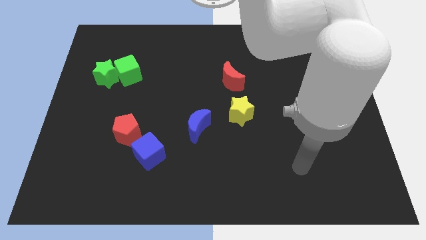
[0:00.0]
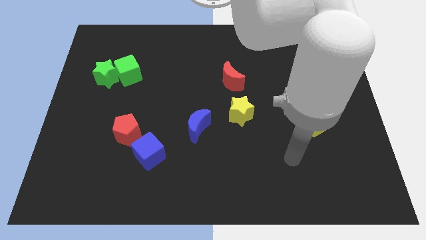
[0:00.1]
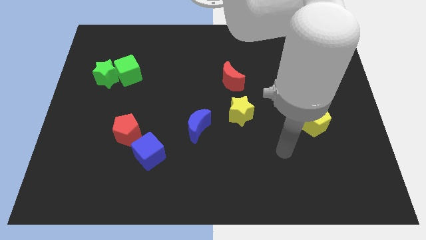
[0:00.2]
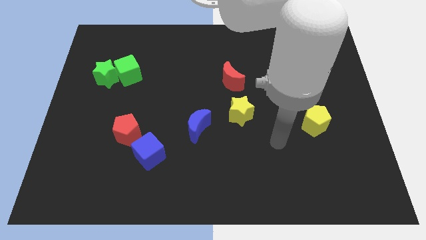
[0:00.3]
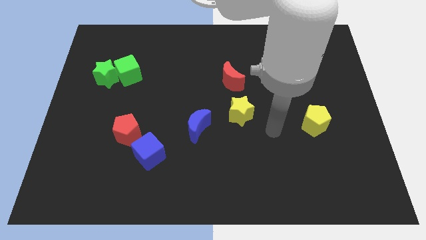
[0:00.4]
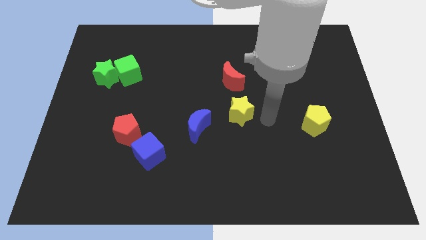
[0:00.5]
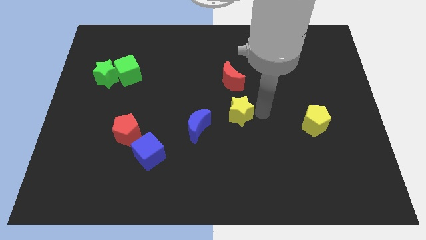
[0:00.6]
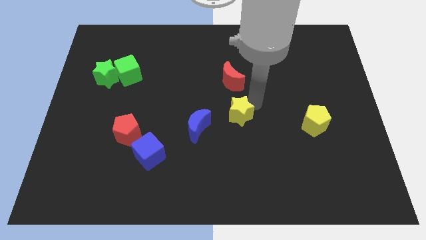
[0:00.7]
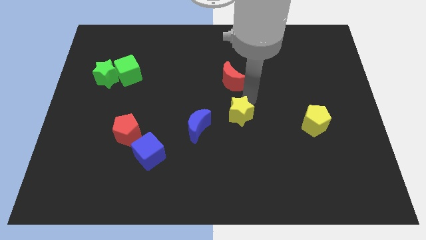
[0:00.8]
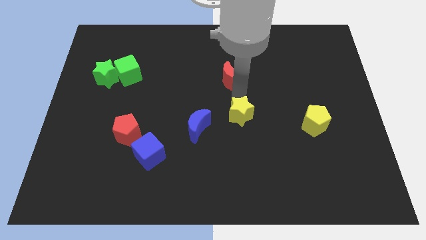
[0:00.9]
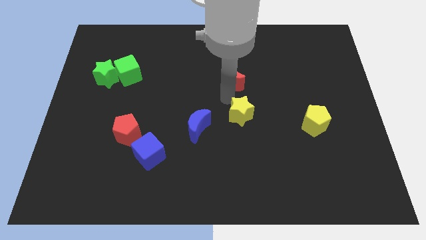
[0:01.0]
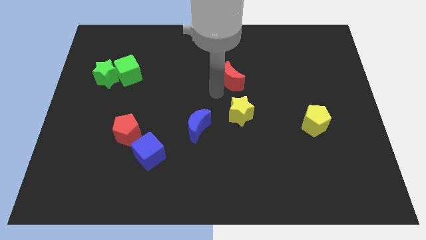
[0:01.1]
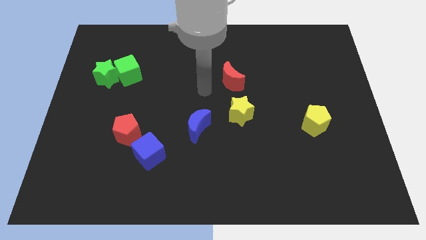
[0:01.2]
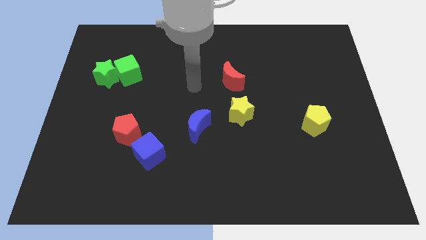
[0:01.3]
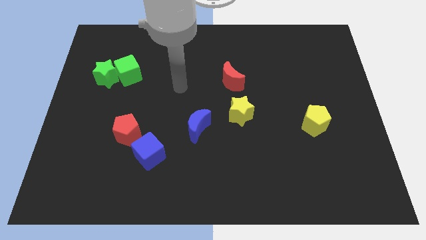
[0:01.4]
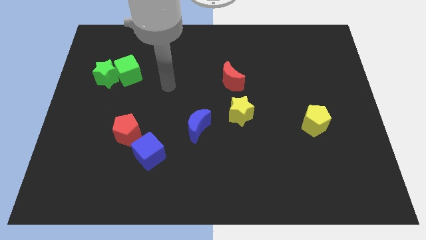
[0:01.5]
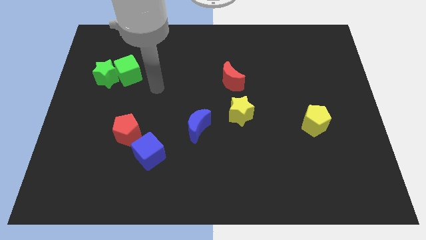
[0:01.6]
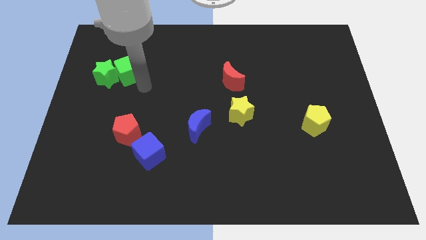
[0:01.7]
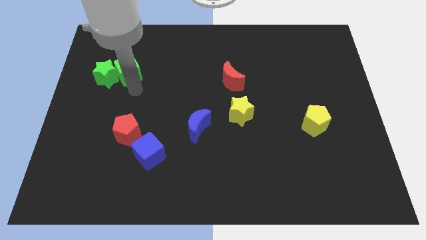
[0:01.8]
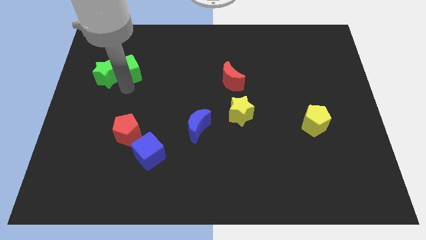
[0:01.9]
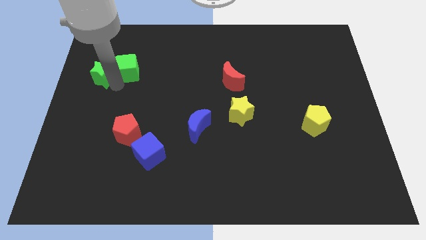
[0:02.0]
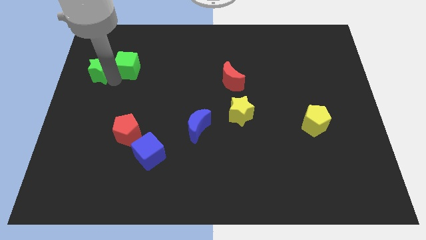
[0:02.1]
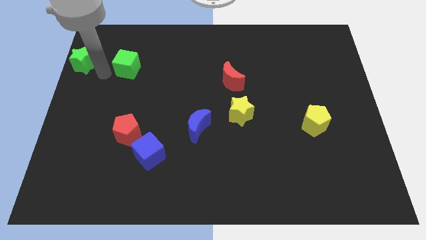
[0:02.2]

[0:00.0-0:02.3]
separate the green cube from the green star

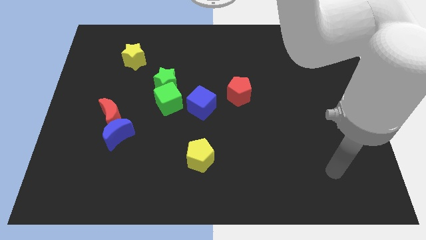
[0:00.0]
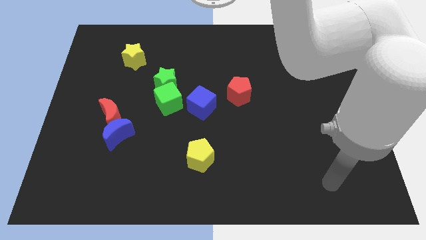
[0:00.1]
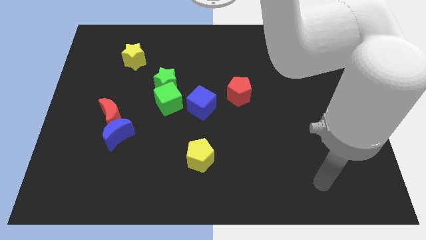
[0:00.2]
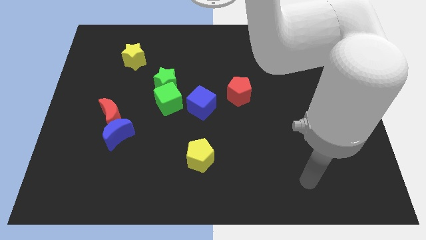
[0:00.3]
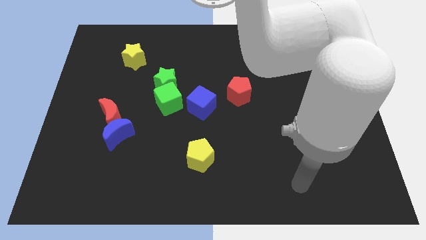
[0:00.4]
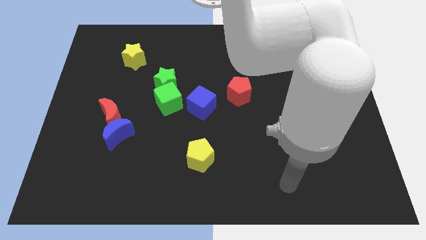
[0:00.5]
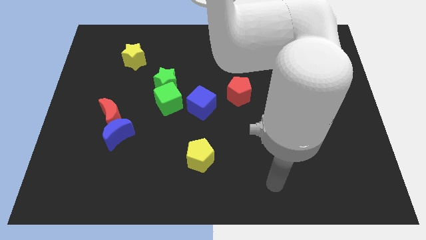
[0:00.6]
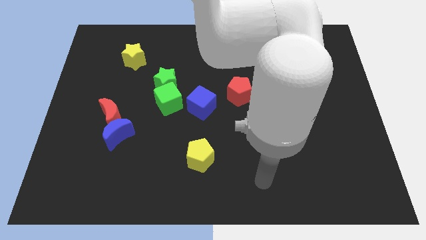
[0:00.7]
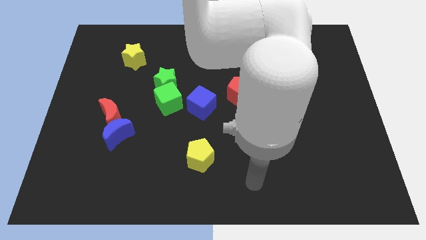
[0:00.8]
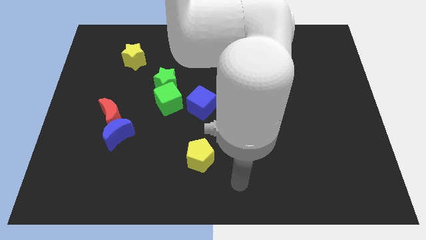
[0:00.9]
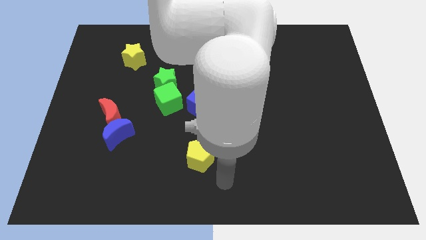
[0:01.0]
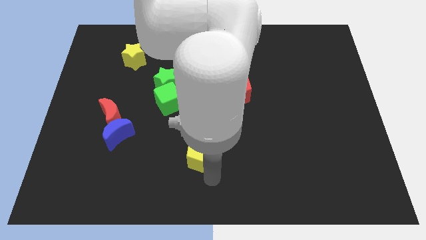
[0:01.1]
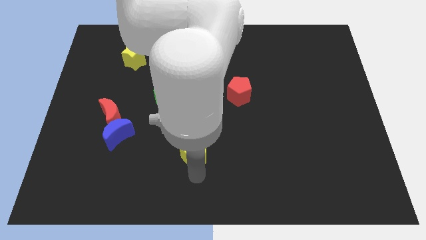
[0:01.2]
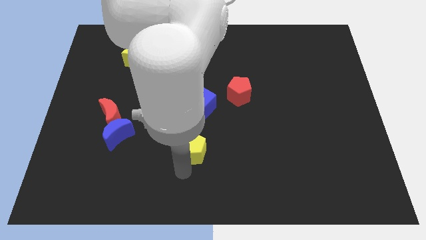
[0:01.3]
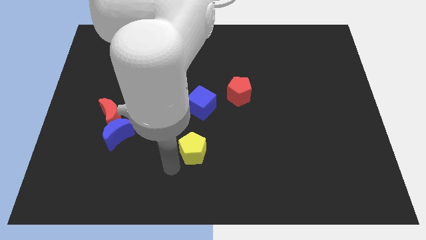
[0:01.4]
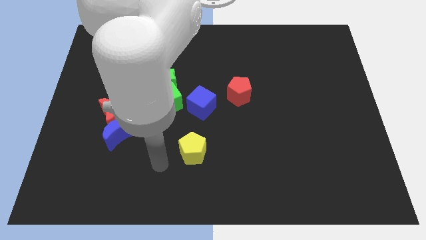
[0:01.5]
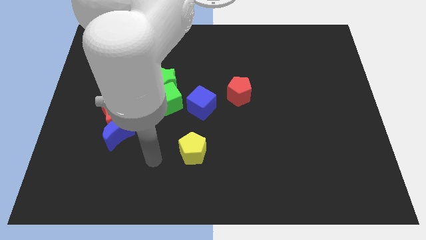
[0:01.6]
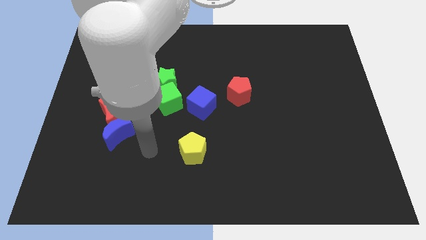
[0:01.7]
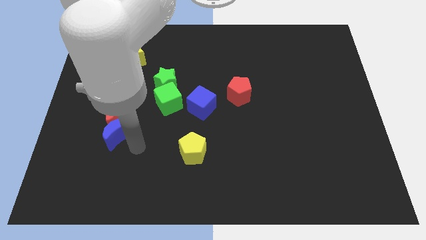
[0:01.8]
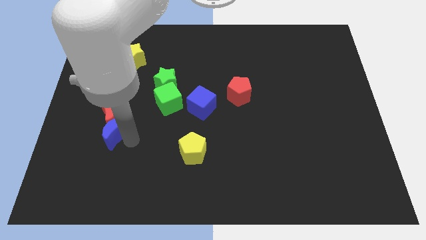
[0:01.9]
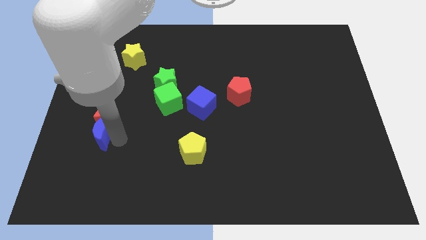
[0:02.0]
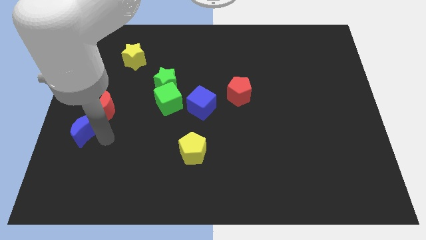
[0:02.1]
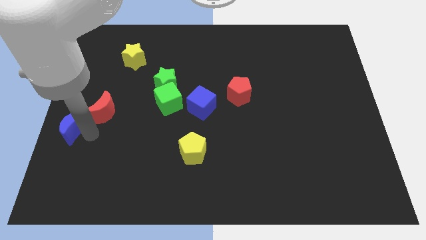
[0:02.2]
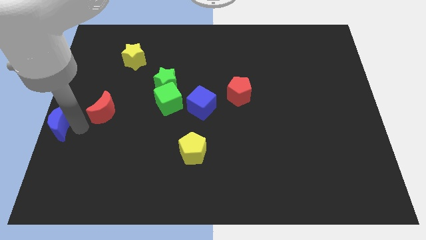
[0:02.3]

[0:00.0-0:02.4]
separate the red moon from the blue moon

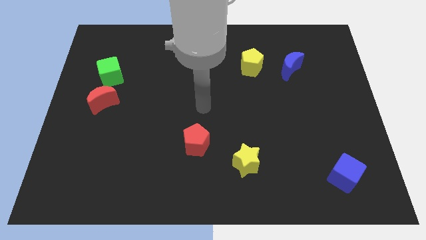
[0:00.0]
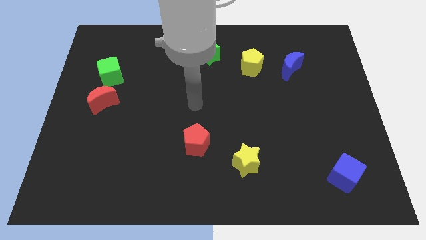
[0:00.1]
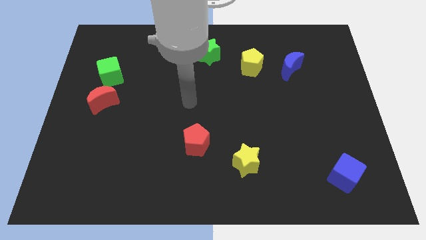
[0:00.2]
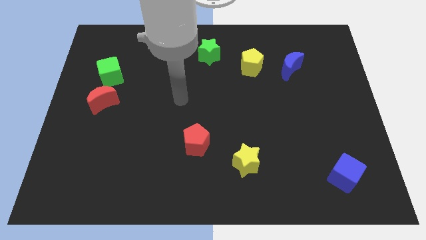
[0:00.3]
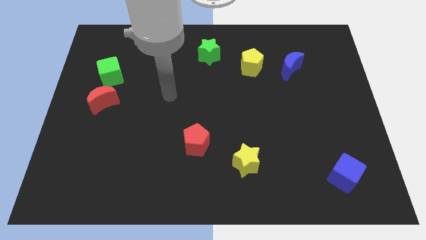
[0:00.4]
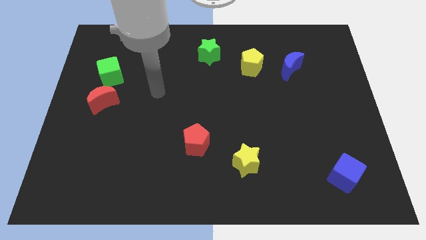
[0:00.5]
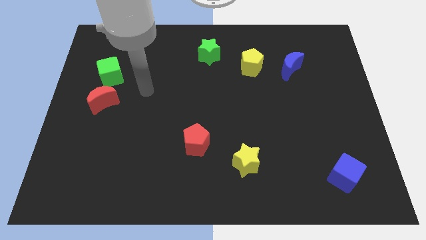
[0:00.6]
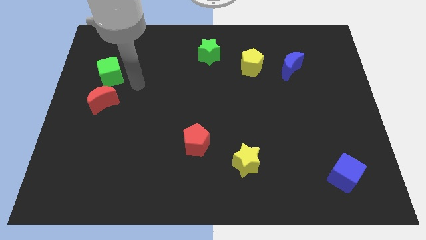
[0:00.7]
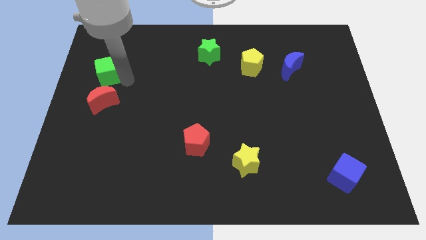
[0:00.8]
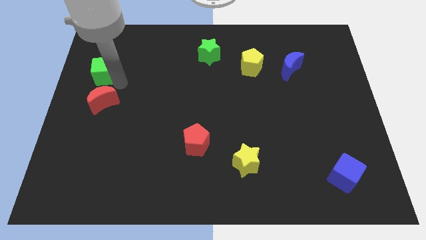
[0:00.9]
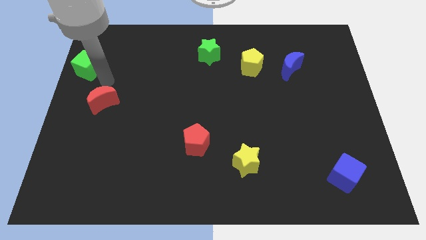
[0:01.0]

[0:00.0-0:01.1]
move the red moon away from the green cube

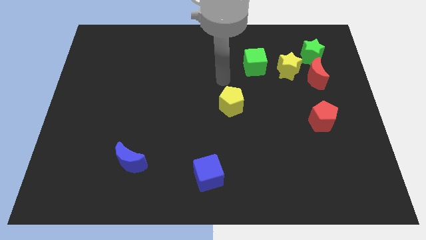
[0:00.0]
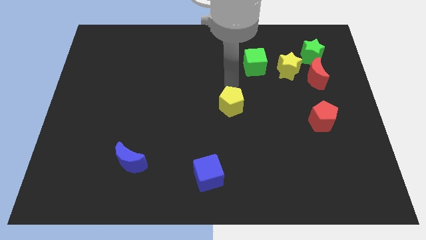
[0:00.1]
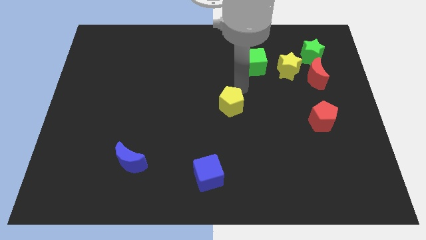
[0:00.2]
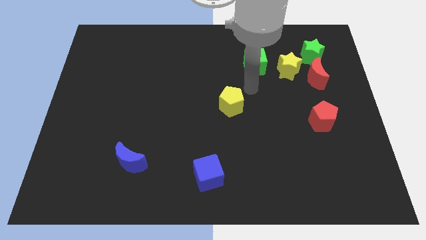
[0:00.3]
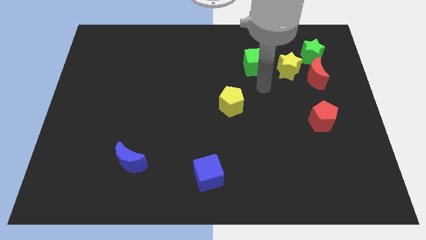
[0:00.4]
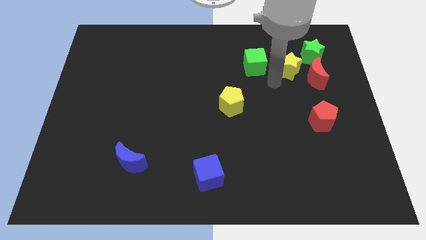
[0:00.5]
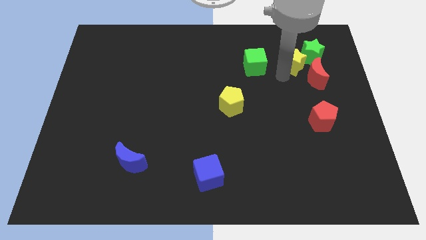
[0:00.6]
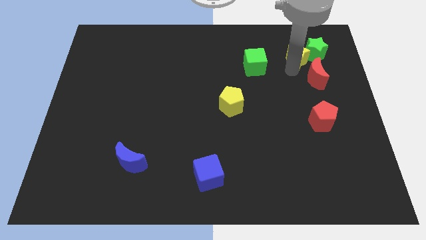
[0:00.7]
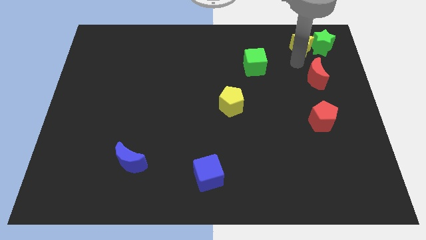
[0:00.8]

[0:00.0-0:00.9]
move the red moon away from the yellow star and green star

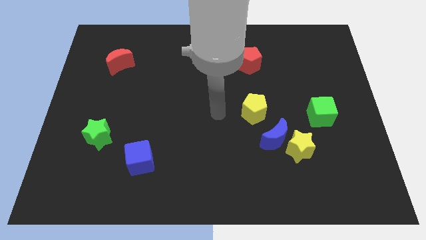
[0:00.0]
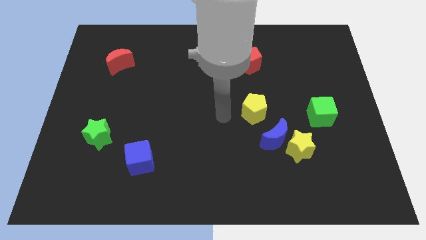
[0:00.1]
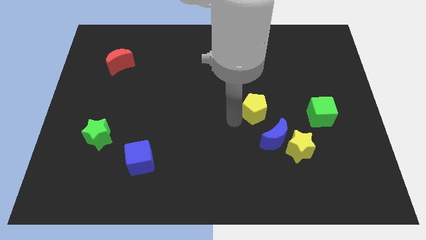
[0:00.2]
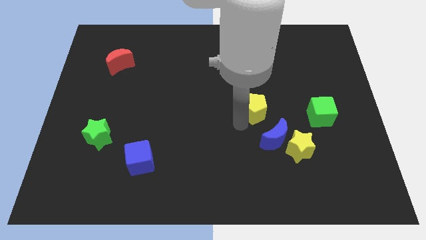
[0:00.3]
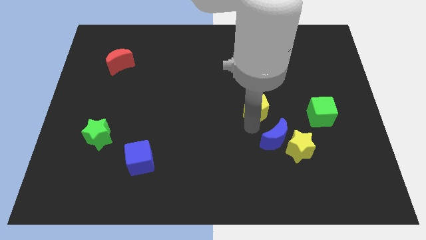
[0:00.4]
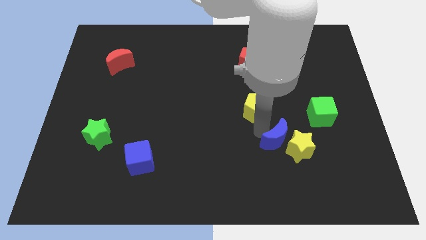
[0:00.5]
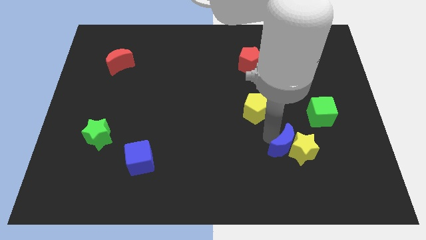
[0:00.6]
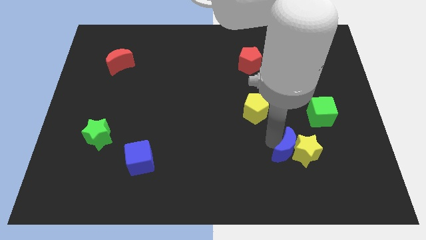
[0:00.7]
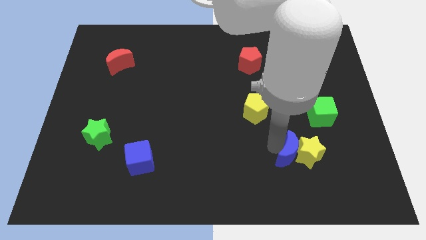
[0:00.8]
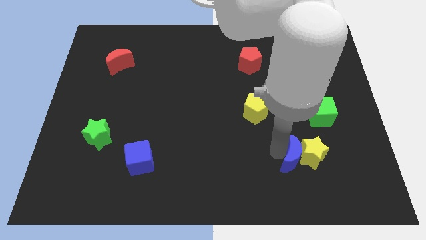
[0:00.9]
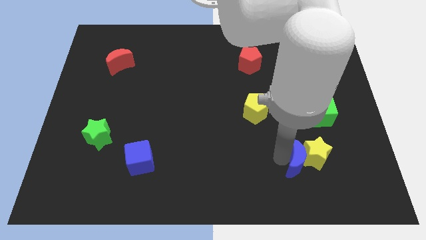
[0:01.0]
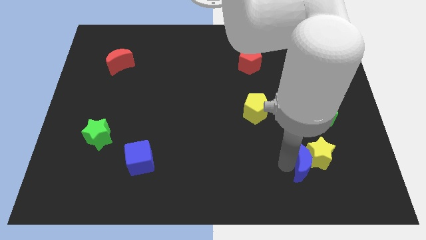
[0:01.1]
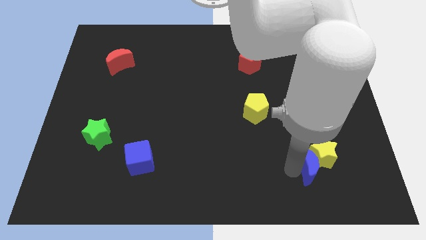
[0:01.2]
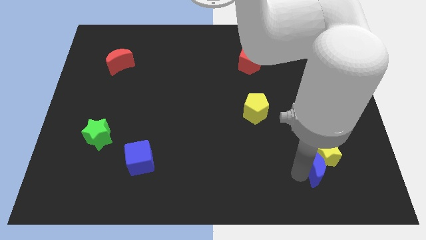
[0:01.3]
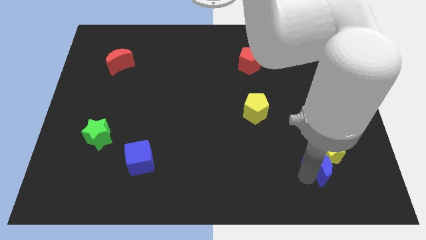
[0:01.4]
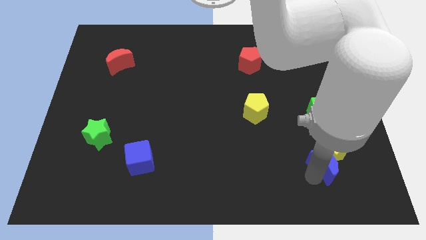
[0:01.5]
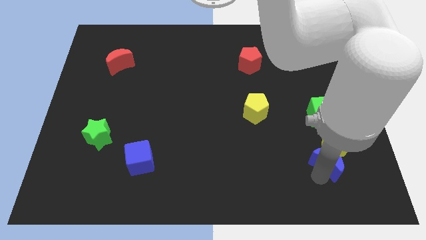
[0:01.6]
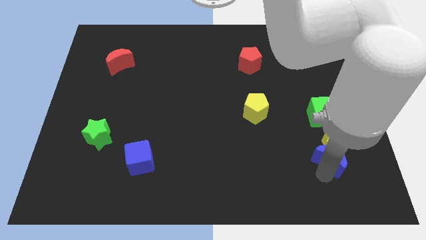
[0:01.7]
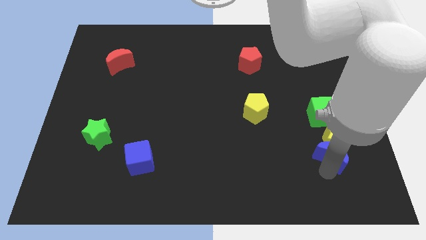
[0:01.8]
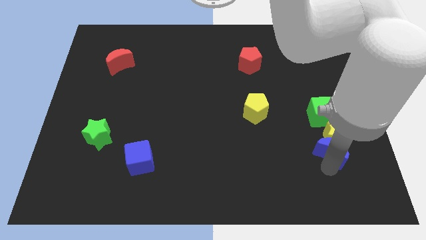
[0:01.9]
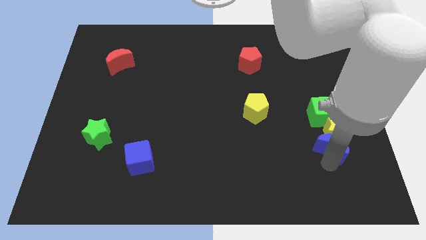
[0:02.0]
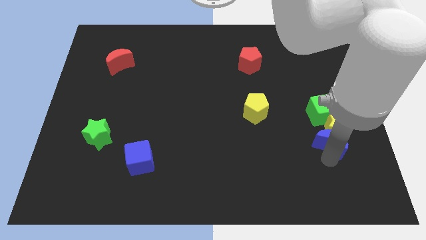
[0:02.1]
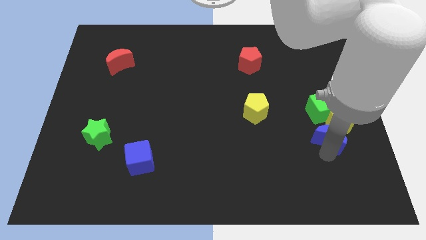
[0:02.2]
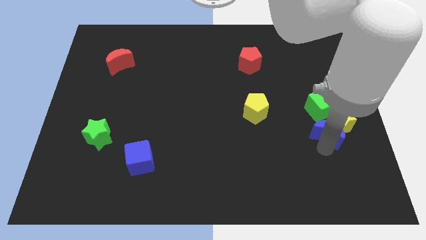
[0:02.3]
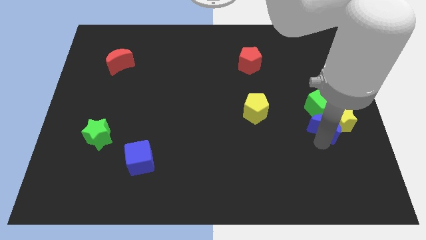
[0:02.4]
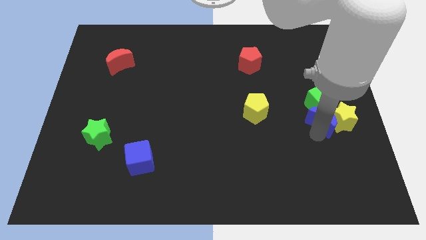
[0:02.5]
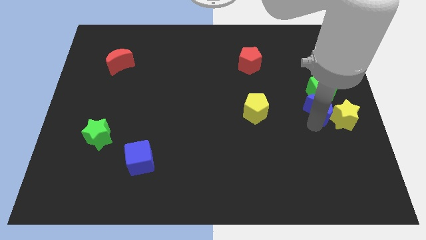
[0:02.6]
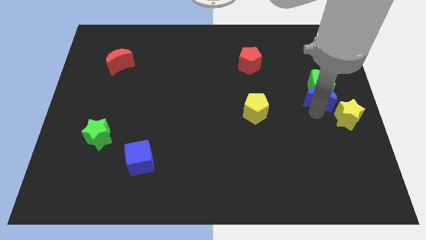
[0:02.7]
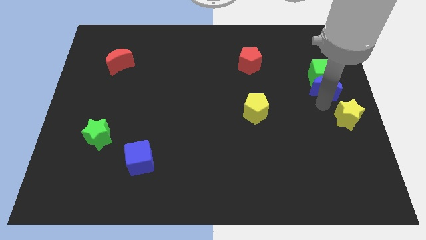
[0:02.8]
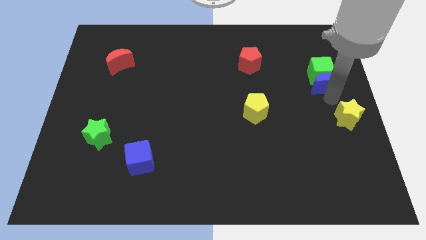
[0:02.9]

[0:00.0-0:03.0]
move the yellow star away from the blue moon
